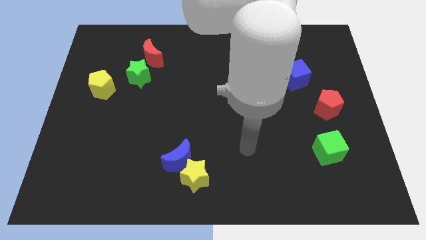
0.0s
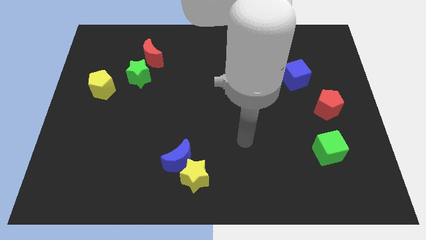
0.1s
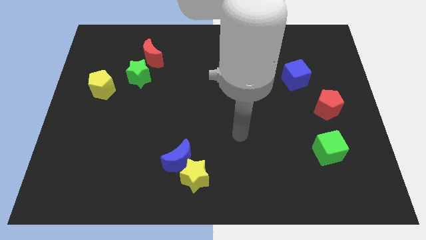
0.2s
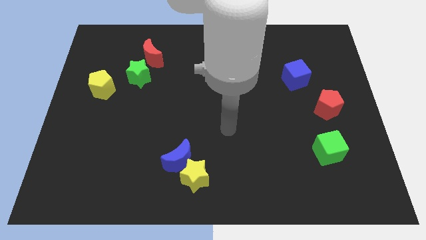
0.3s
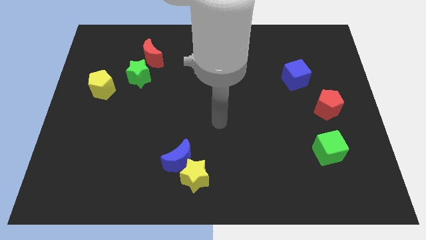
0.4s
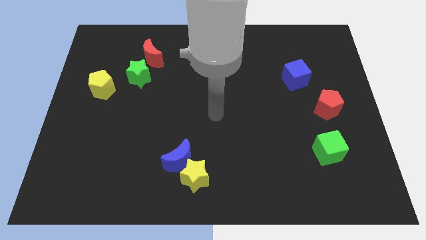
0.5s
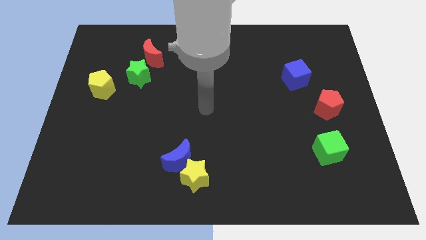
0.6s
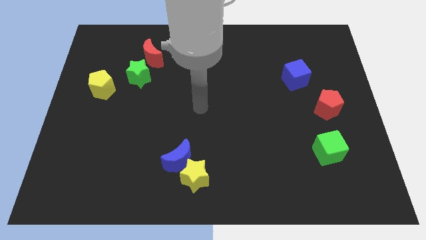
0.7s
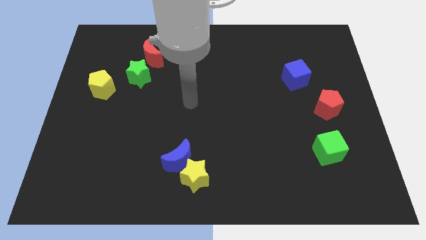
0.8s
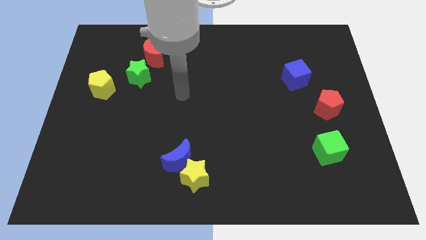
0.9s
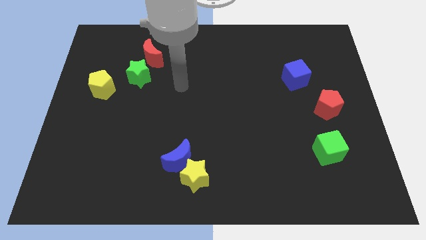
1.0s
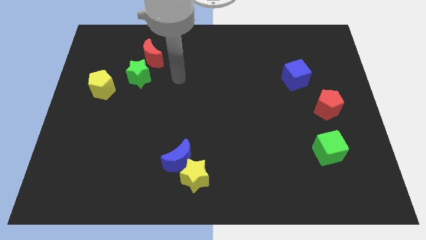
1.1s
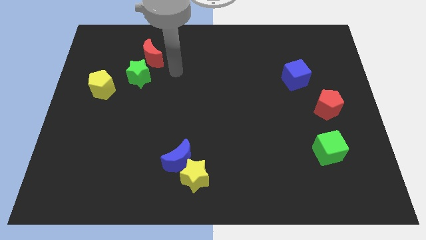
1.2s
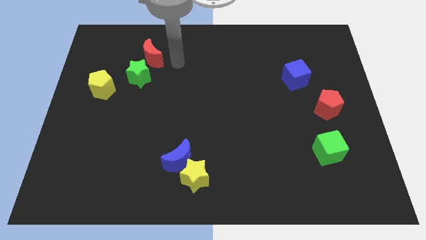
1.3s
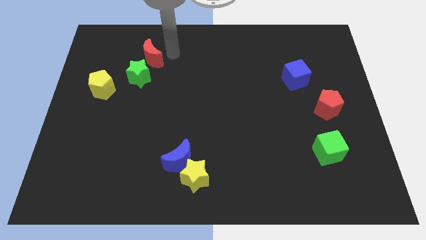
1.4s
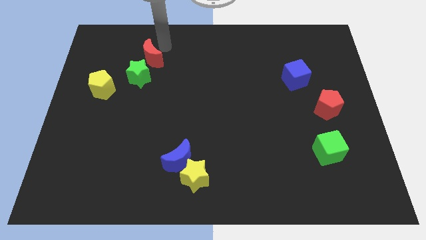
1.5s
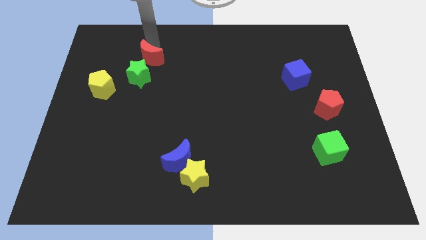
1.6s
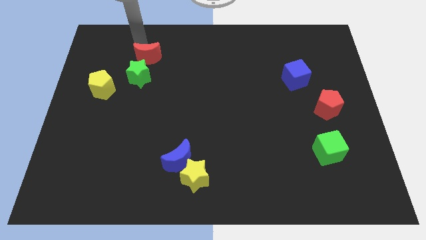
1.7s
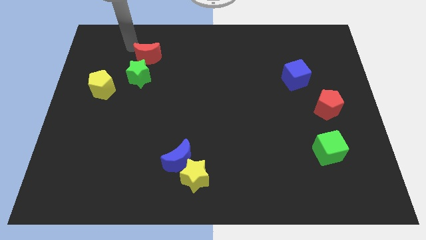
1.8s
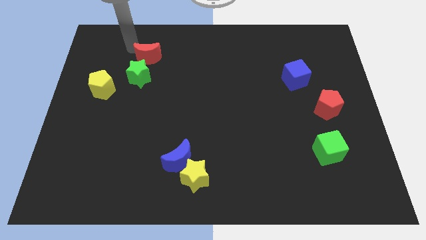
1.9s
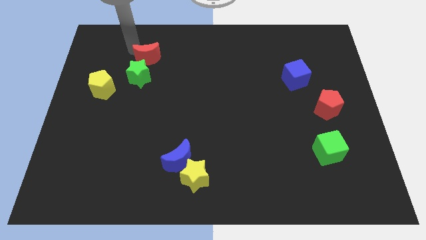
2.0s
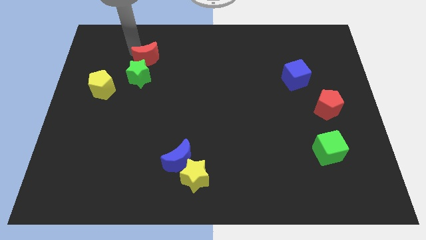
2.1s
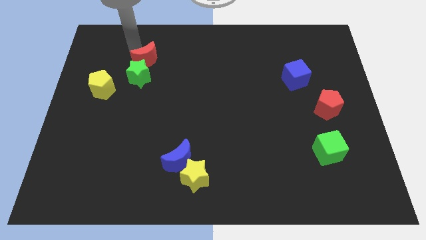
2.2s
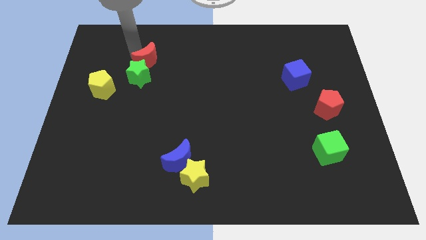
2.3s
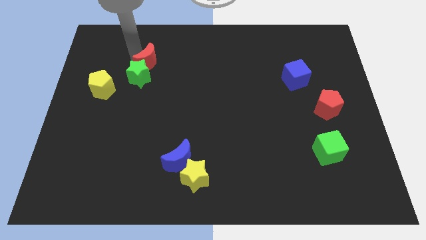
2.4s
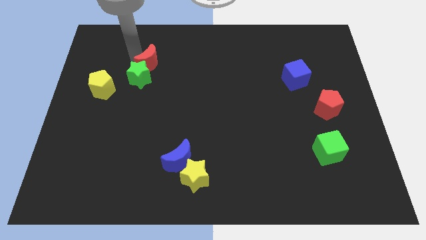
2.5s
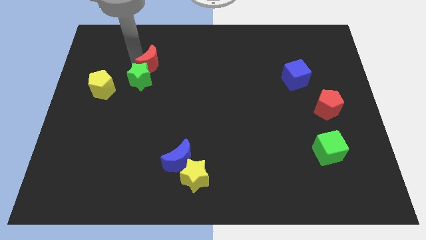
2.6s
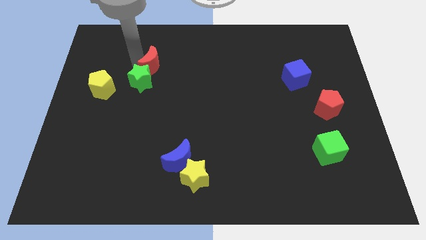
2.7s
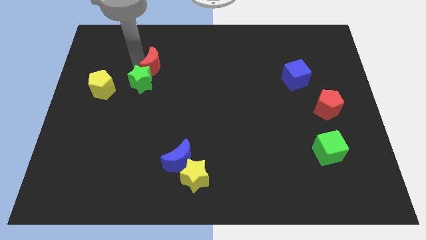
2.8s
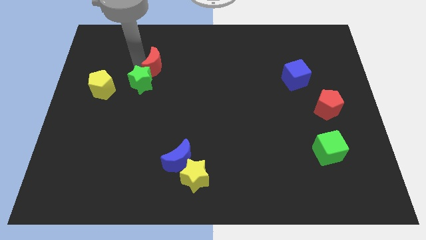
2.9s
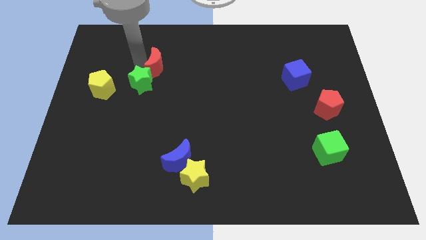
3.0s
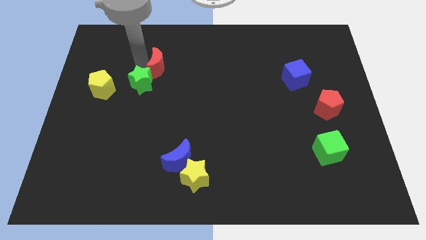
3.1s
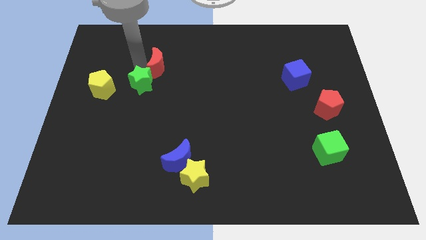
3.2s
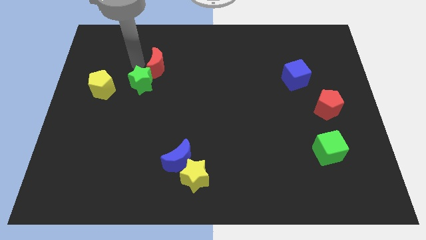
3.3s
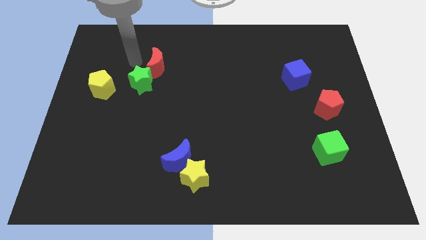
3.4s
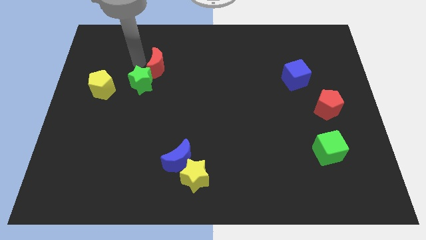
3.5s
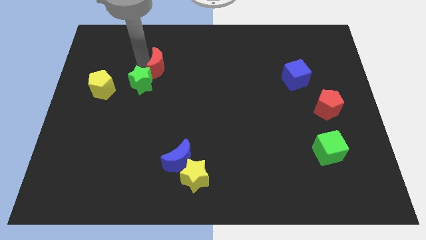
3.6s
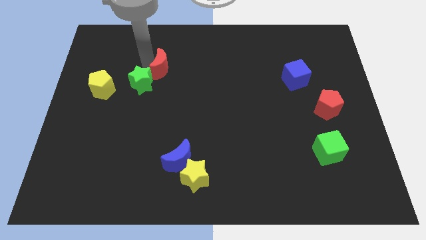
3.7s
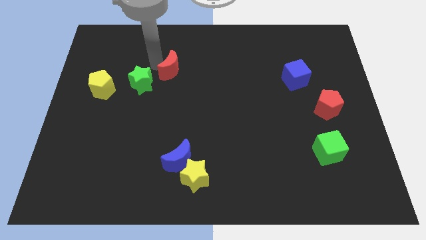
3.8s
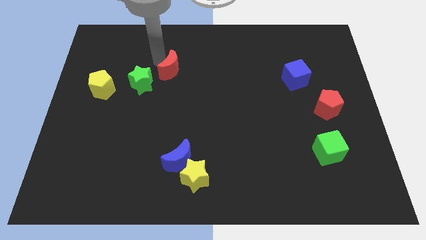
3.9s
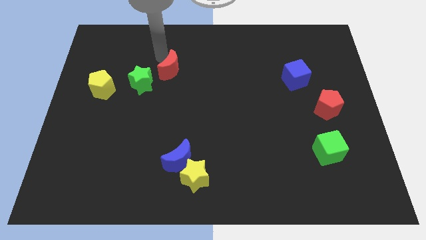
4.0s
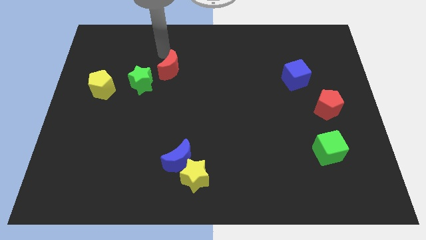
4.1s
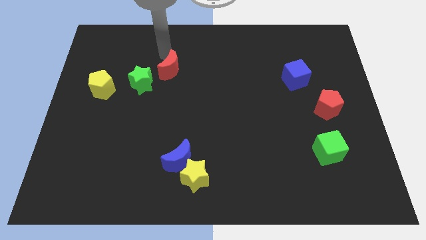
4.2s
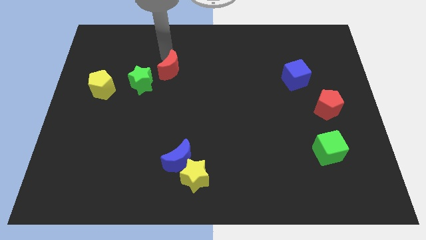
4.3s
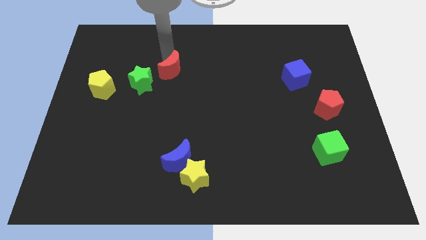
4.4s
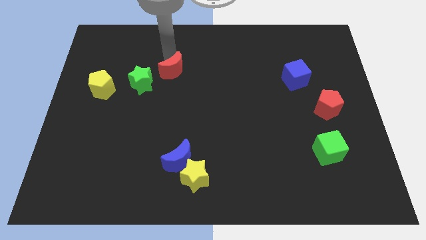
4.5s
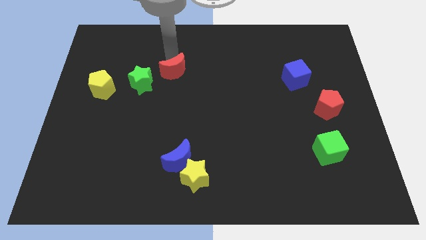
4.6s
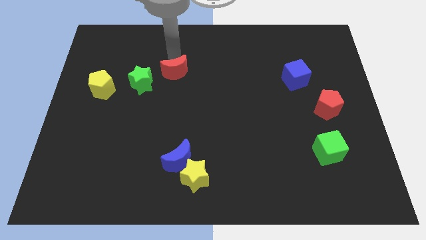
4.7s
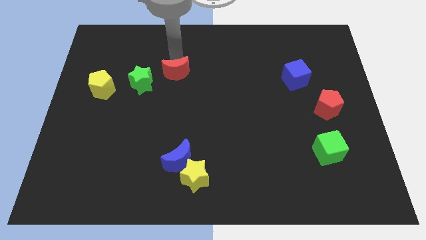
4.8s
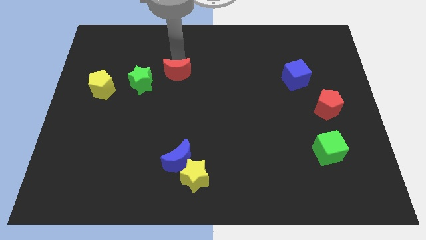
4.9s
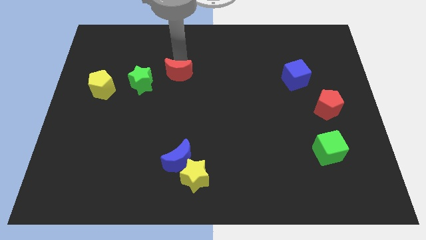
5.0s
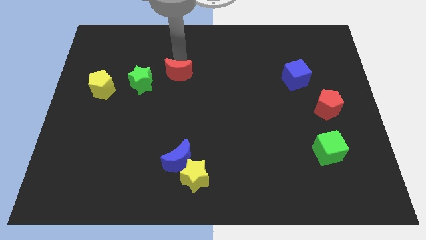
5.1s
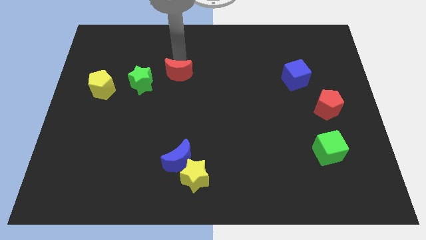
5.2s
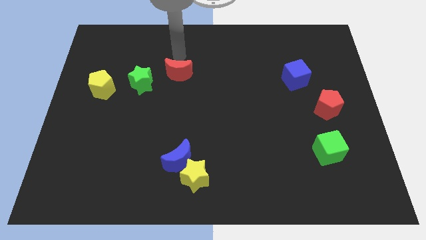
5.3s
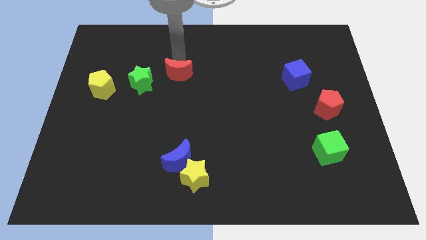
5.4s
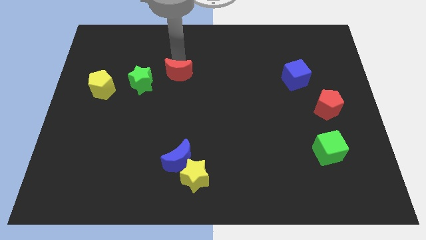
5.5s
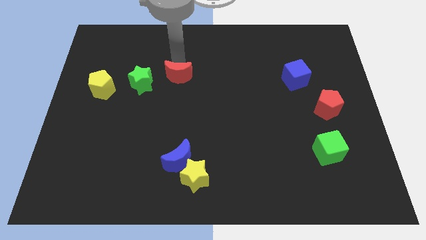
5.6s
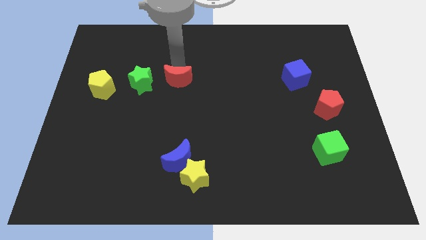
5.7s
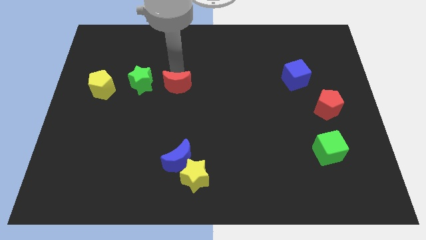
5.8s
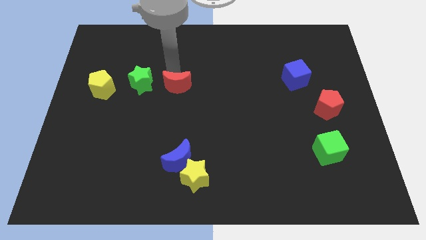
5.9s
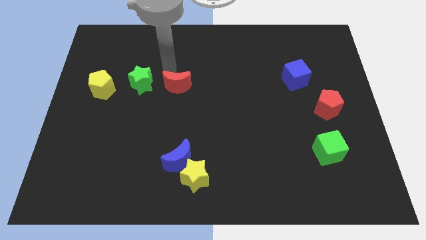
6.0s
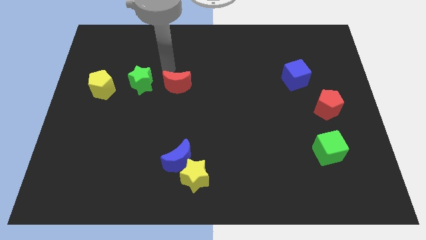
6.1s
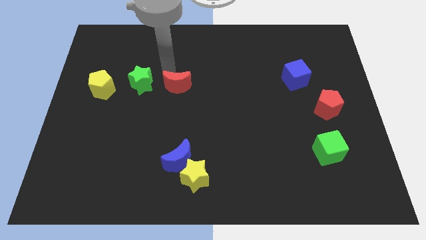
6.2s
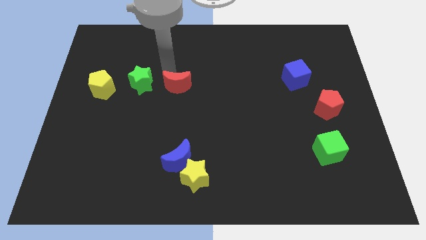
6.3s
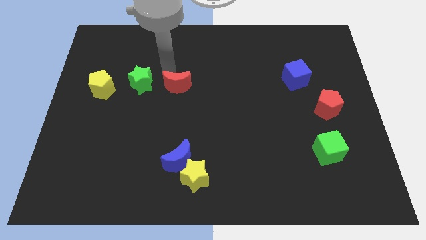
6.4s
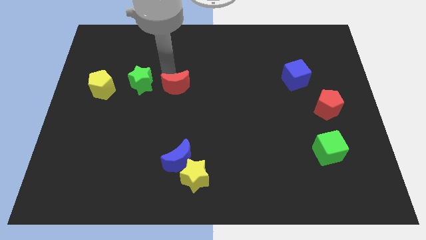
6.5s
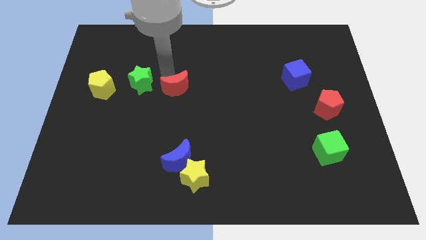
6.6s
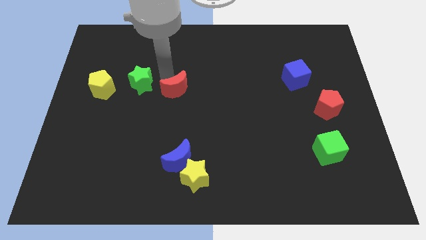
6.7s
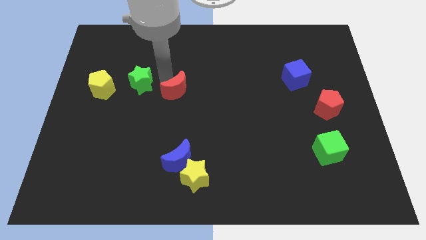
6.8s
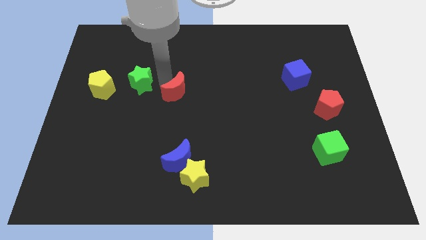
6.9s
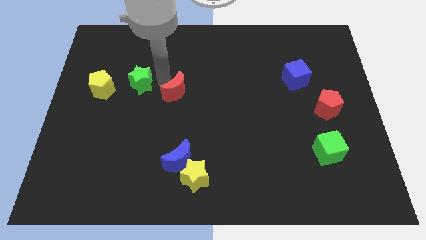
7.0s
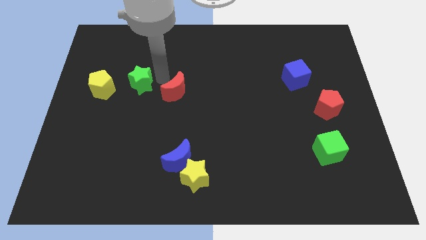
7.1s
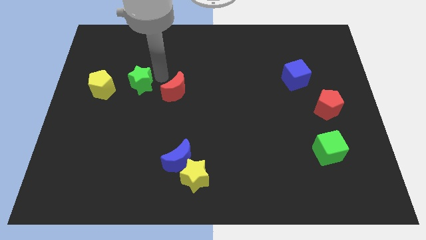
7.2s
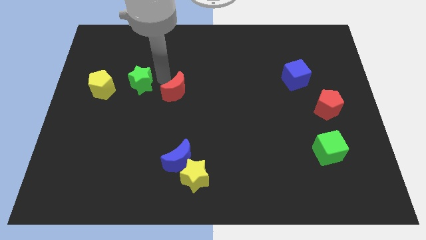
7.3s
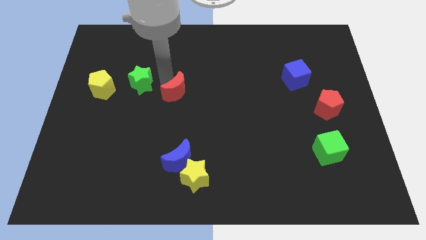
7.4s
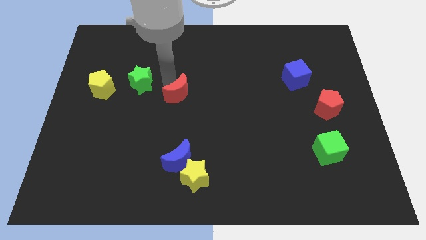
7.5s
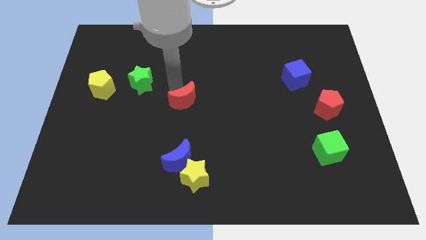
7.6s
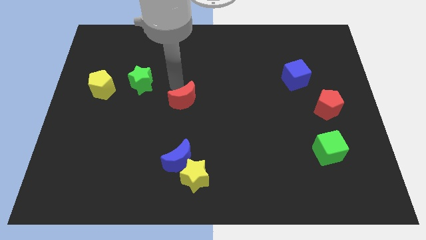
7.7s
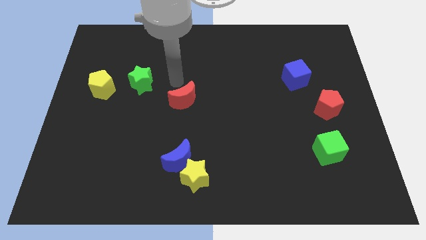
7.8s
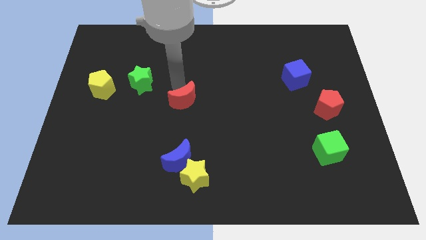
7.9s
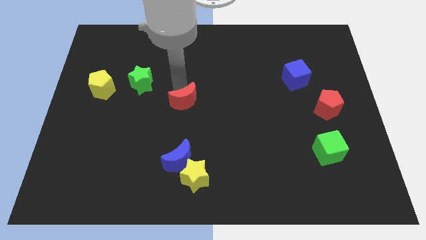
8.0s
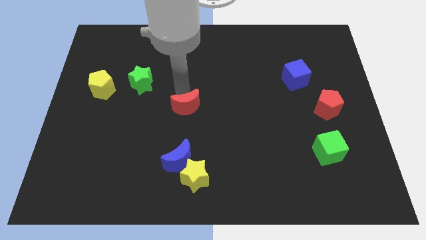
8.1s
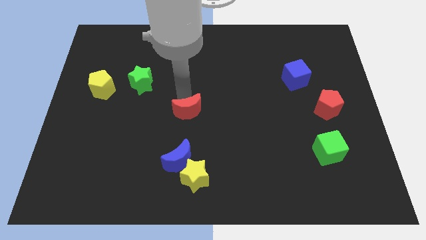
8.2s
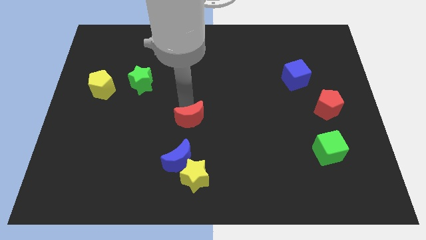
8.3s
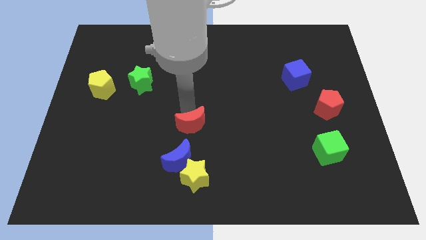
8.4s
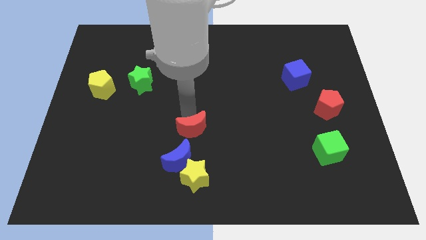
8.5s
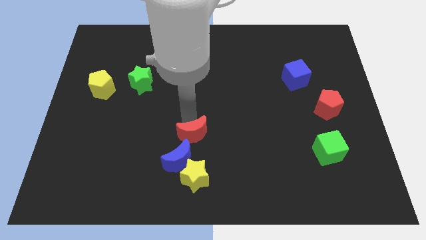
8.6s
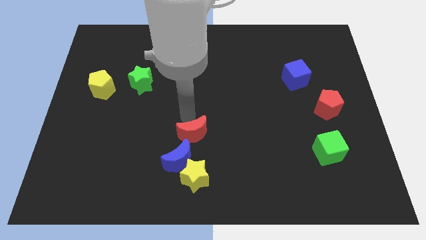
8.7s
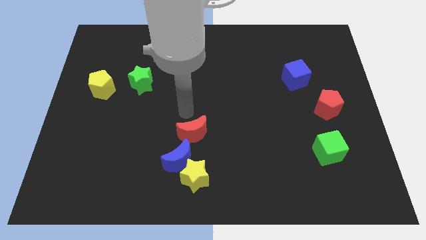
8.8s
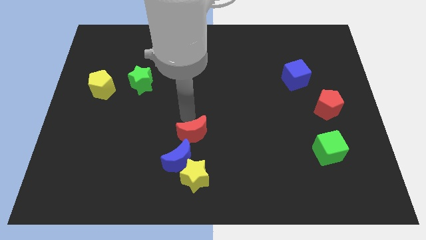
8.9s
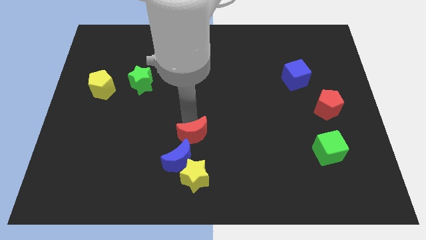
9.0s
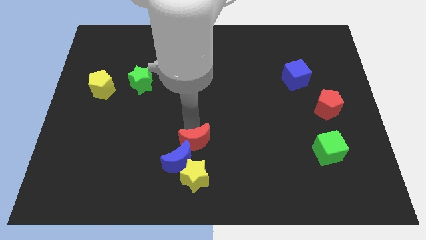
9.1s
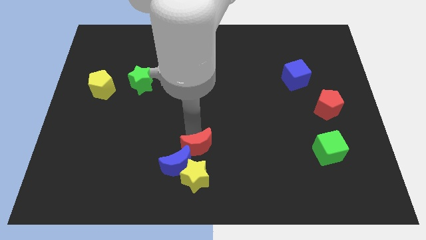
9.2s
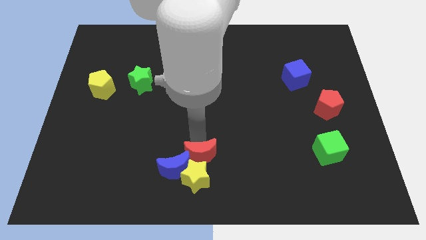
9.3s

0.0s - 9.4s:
push the red moon next to the yellow star
